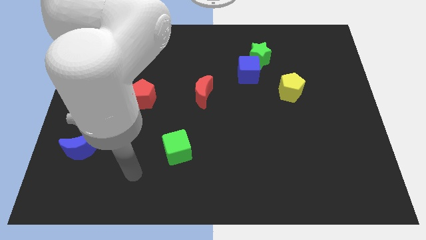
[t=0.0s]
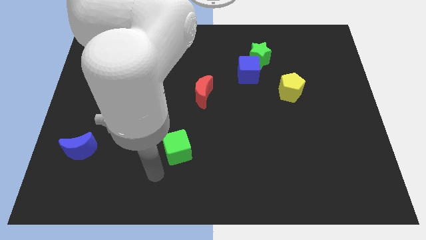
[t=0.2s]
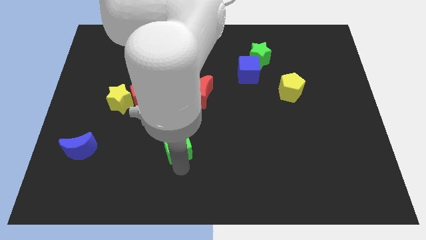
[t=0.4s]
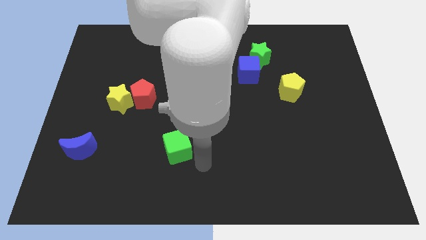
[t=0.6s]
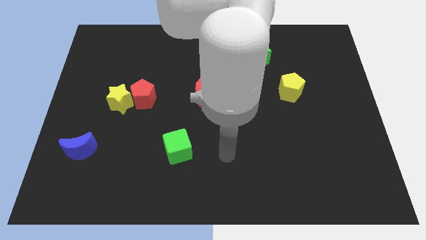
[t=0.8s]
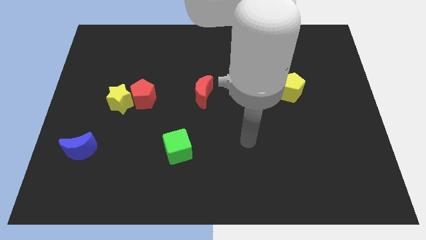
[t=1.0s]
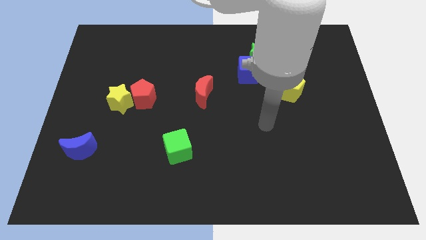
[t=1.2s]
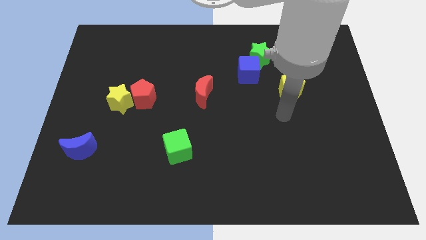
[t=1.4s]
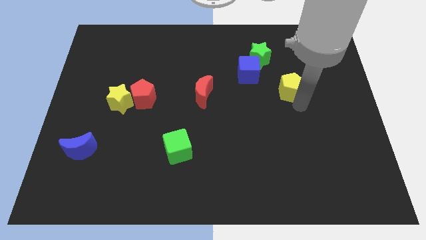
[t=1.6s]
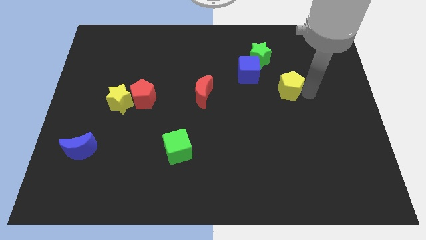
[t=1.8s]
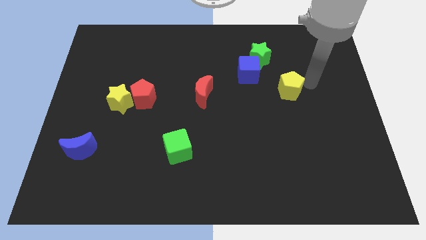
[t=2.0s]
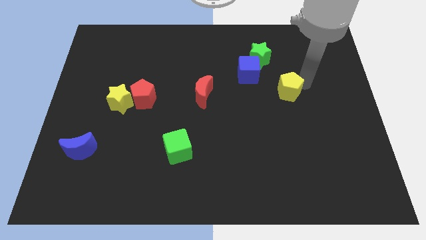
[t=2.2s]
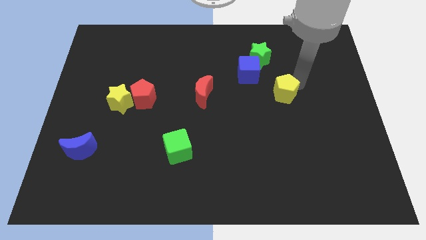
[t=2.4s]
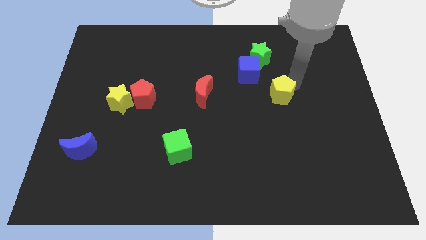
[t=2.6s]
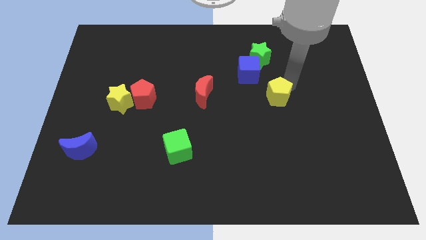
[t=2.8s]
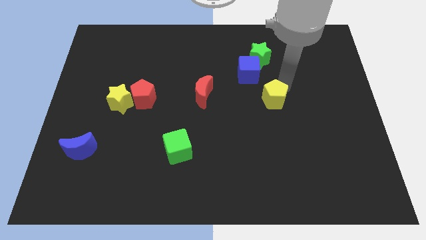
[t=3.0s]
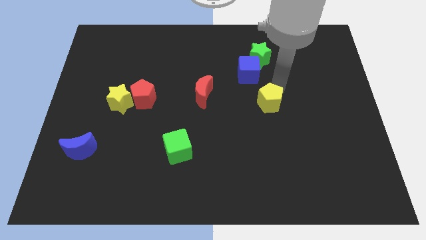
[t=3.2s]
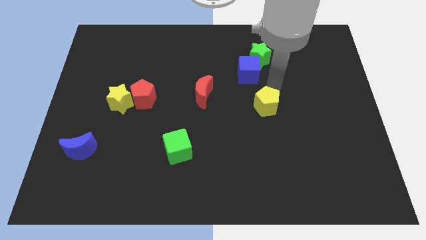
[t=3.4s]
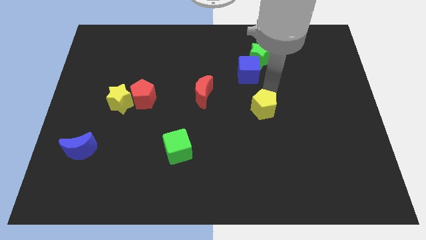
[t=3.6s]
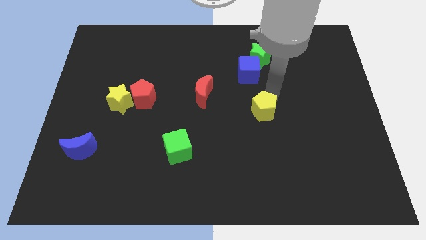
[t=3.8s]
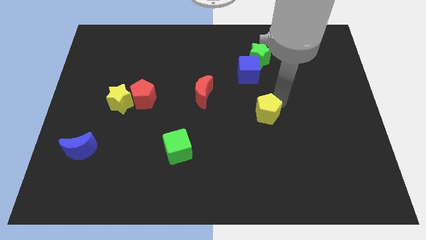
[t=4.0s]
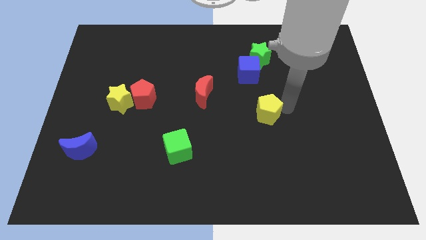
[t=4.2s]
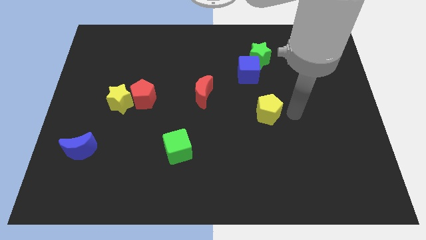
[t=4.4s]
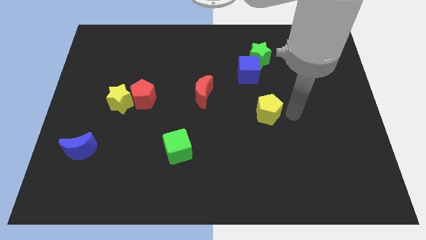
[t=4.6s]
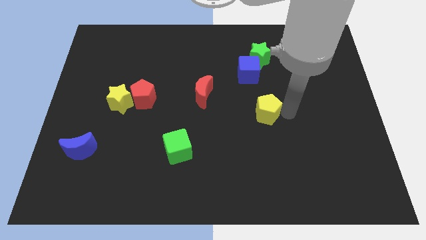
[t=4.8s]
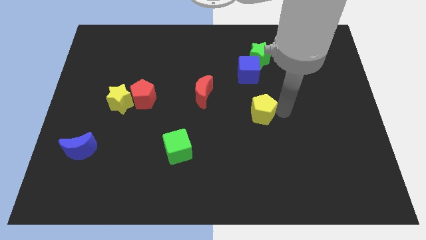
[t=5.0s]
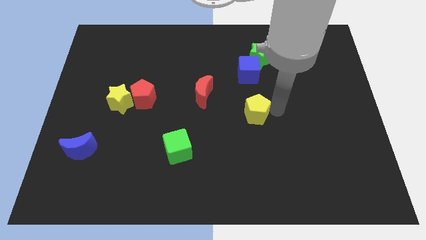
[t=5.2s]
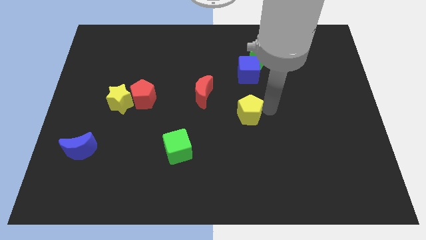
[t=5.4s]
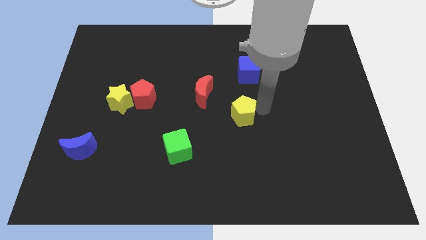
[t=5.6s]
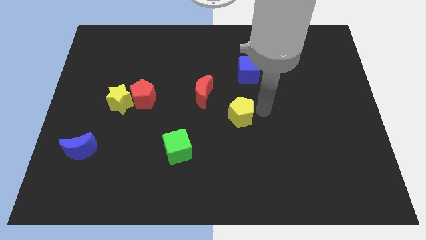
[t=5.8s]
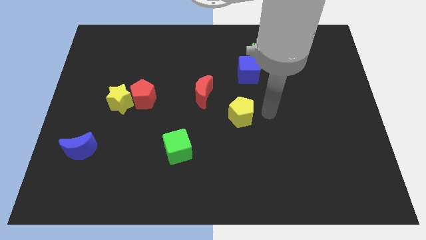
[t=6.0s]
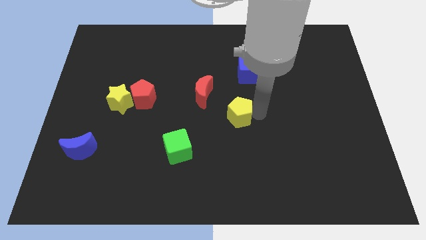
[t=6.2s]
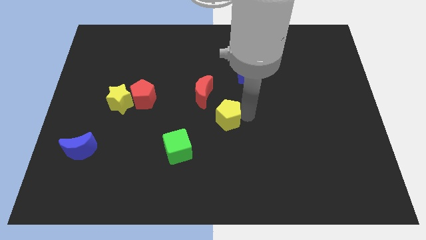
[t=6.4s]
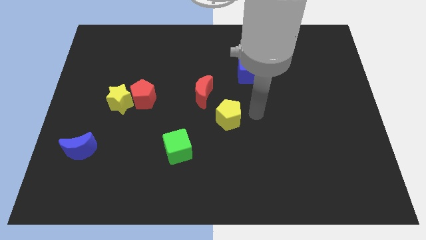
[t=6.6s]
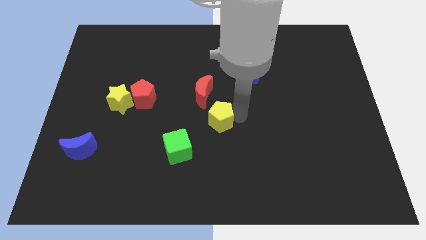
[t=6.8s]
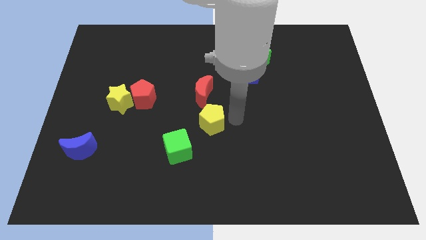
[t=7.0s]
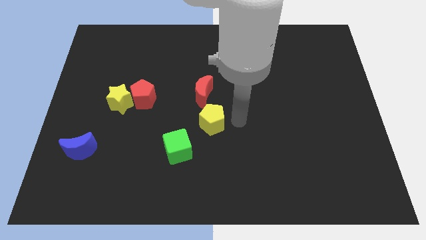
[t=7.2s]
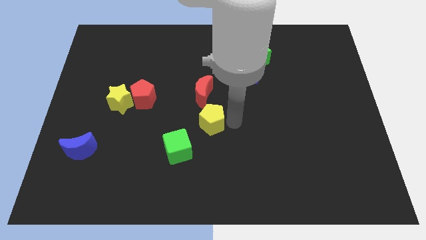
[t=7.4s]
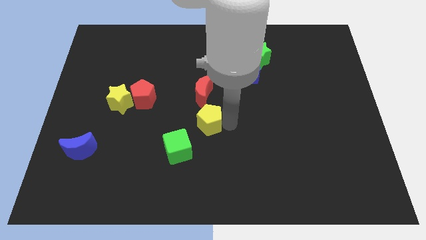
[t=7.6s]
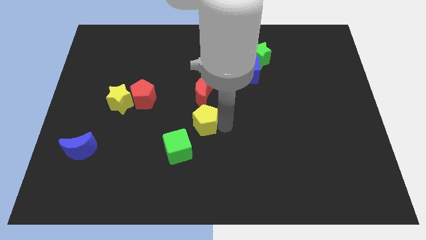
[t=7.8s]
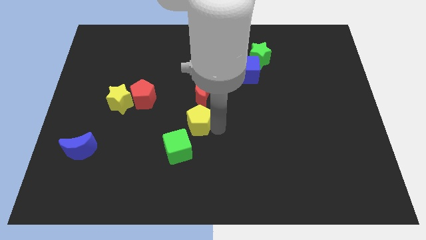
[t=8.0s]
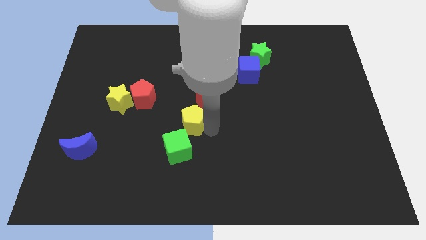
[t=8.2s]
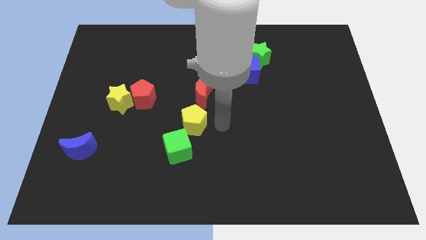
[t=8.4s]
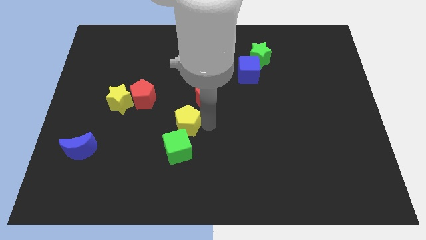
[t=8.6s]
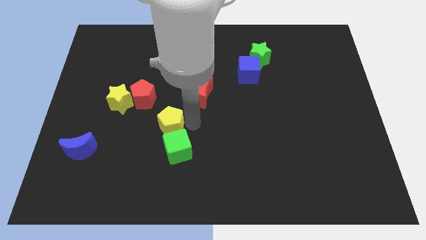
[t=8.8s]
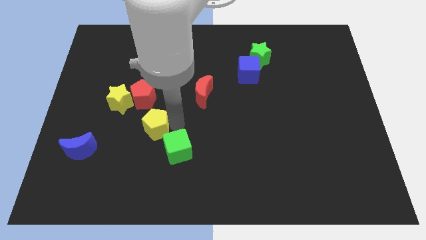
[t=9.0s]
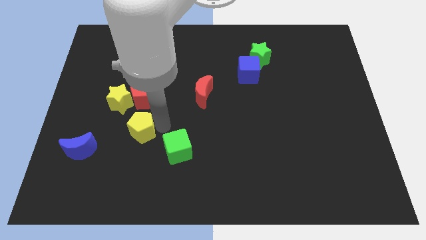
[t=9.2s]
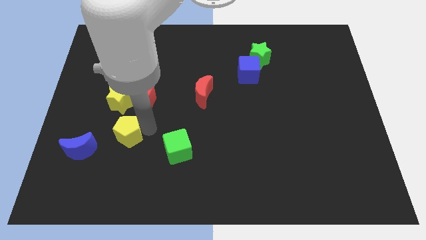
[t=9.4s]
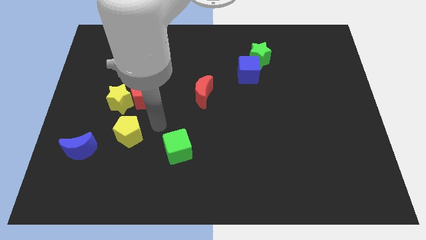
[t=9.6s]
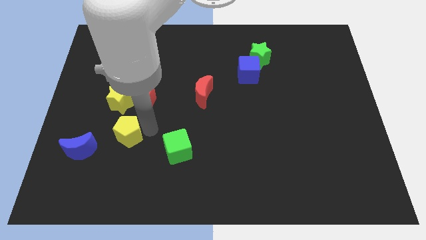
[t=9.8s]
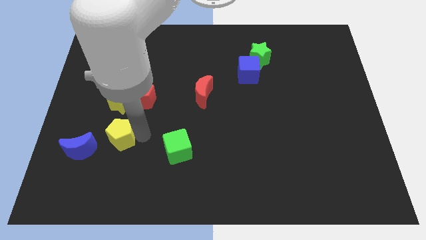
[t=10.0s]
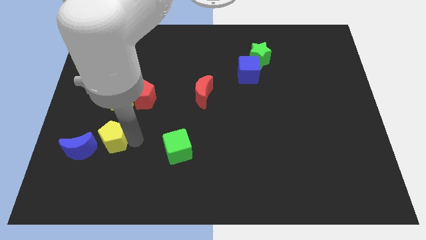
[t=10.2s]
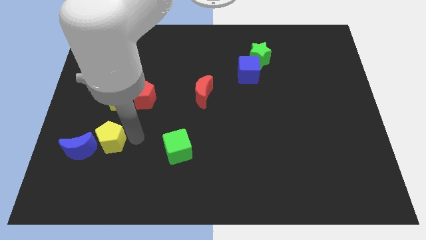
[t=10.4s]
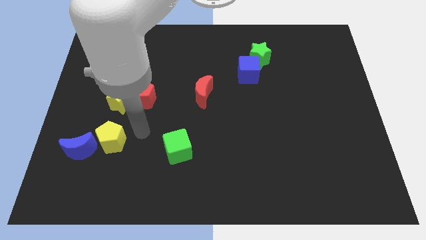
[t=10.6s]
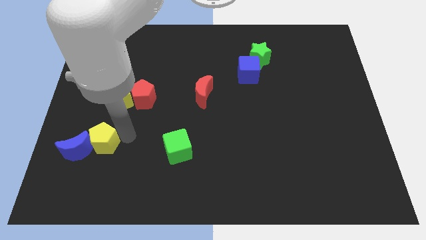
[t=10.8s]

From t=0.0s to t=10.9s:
move the yellow pentagon to the blue moon

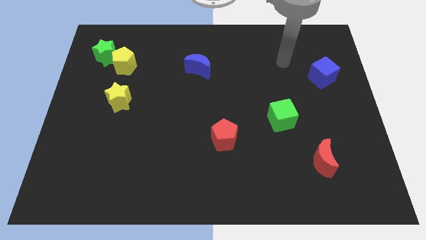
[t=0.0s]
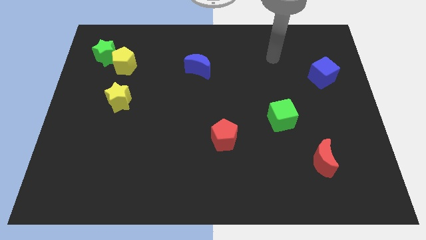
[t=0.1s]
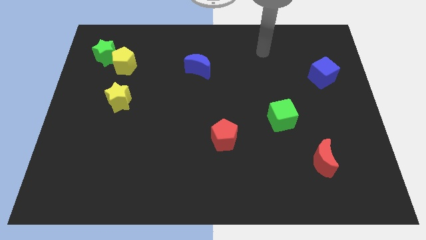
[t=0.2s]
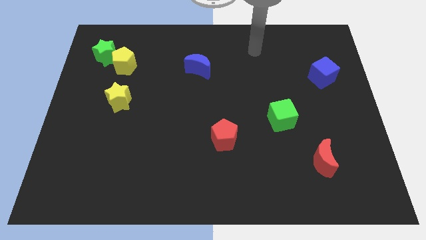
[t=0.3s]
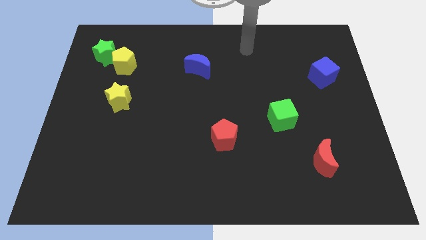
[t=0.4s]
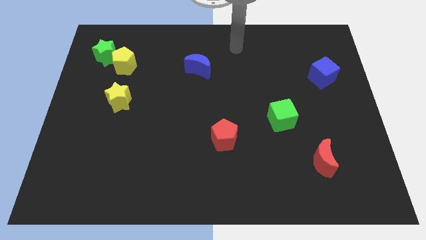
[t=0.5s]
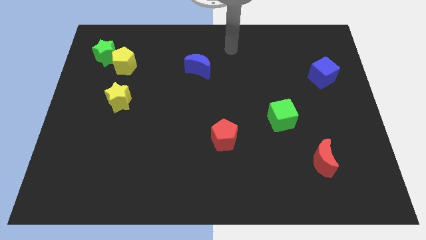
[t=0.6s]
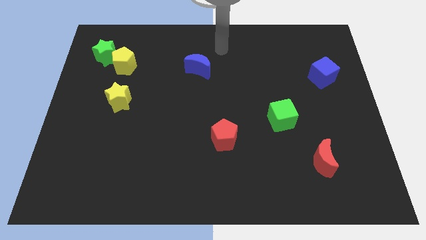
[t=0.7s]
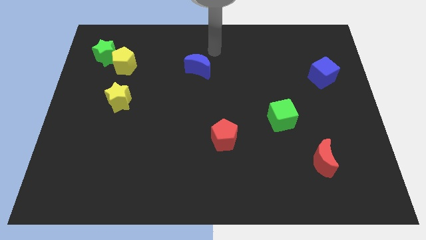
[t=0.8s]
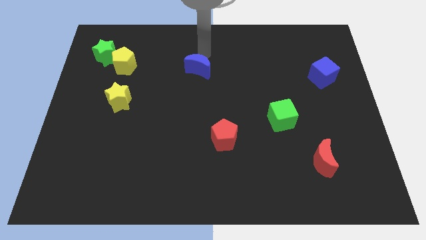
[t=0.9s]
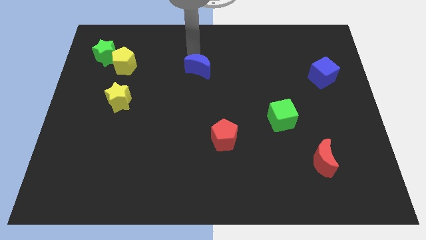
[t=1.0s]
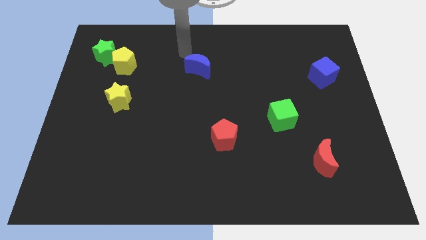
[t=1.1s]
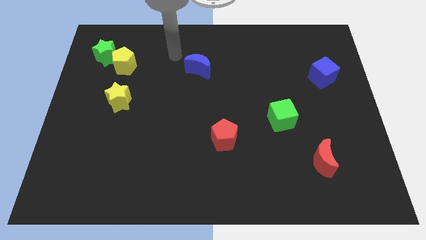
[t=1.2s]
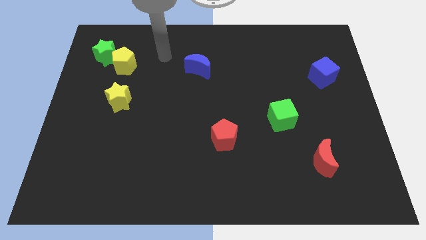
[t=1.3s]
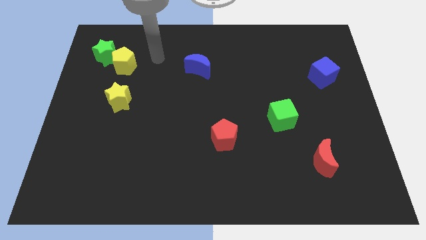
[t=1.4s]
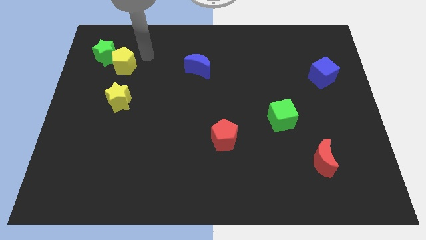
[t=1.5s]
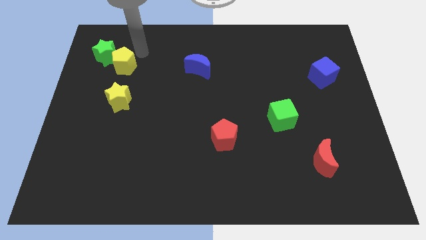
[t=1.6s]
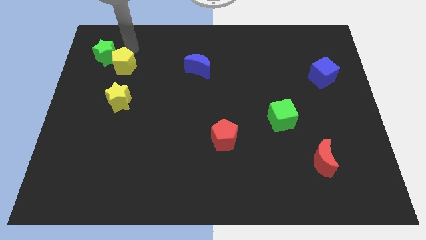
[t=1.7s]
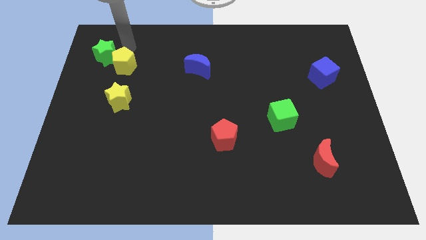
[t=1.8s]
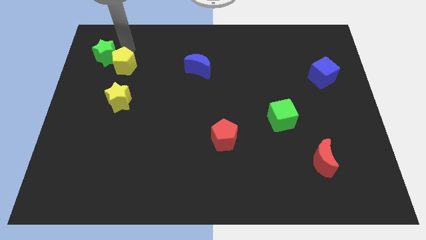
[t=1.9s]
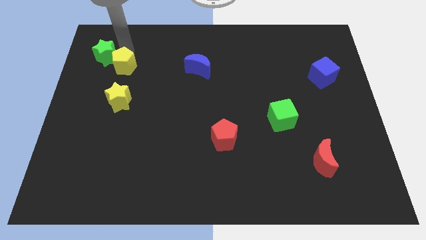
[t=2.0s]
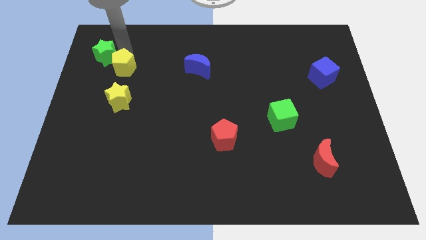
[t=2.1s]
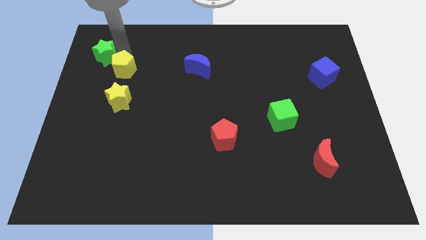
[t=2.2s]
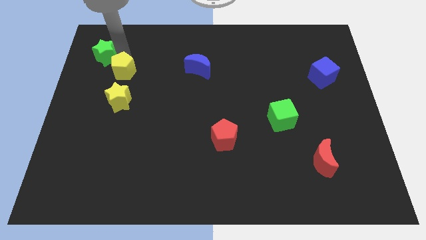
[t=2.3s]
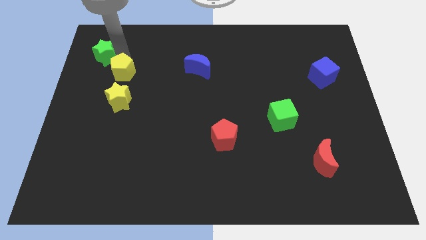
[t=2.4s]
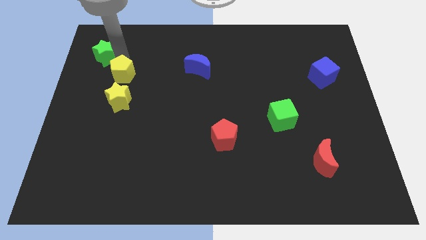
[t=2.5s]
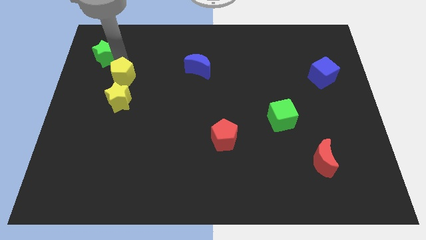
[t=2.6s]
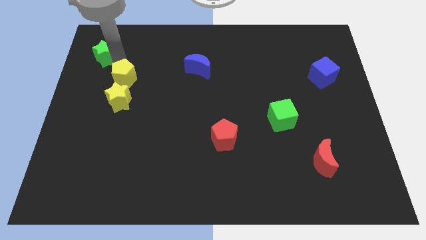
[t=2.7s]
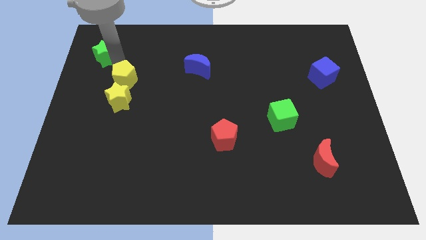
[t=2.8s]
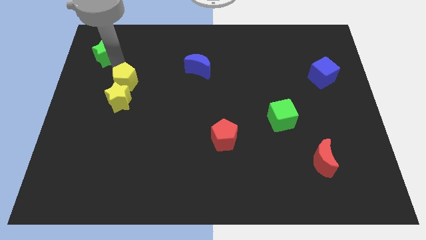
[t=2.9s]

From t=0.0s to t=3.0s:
push the yellow pentagon close to the yellow star
